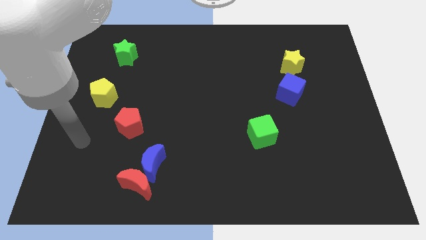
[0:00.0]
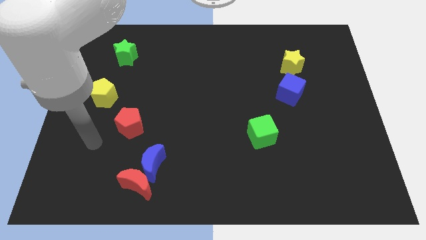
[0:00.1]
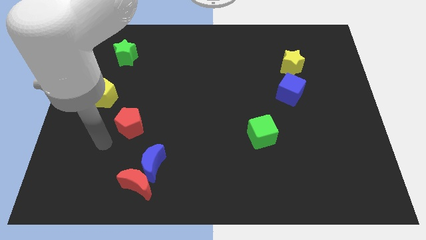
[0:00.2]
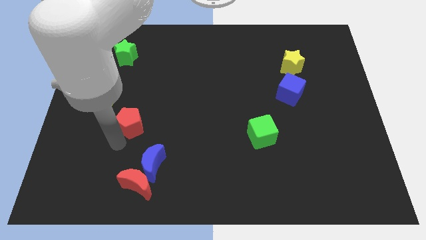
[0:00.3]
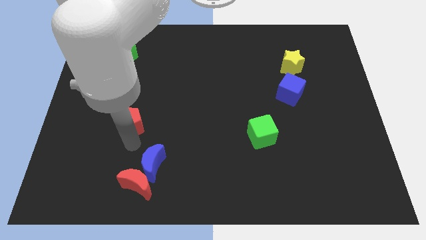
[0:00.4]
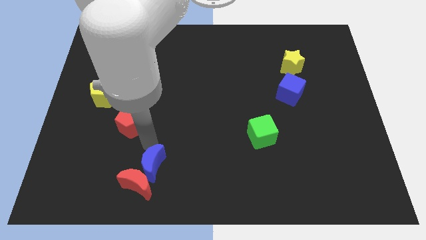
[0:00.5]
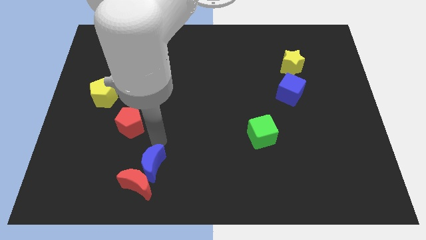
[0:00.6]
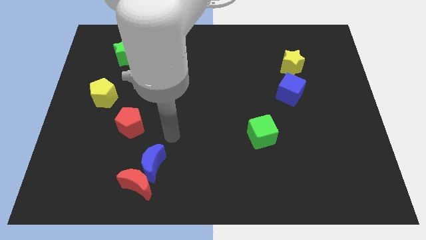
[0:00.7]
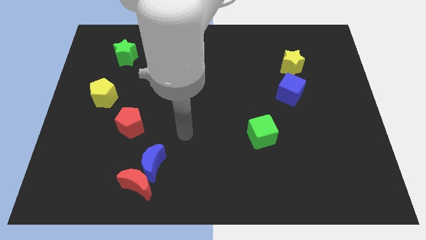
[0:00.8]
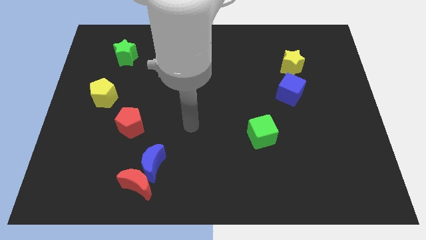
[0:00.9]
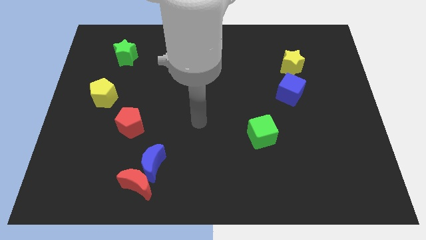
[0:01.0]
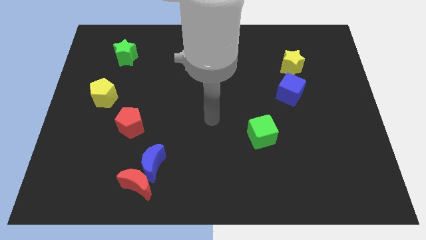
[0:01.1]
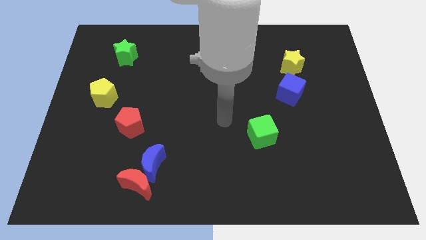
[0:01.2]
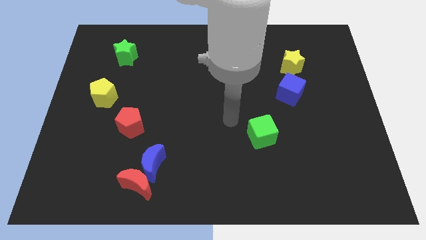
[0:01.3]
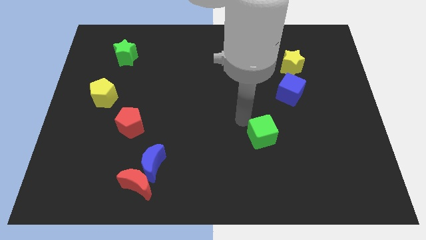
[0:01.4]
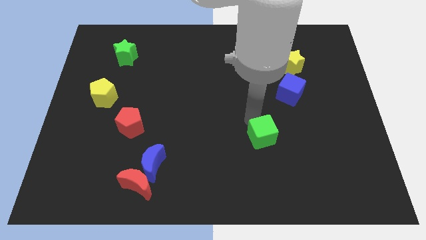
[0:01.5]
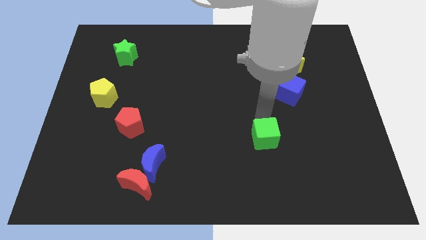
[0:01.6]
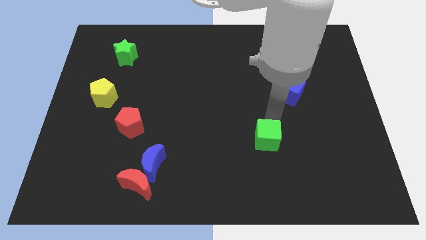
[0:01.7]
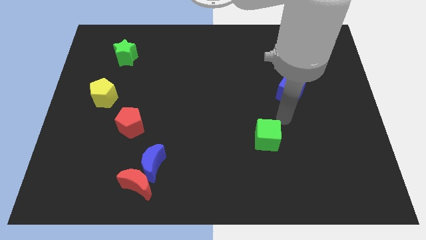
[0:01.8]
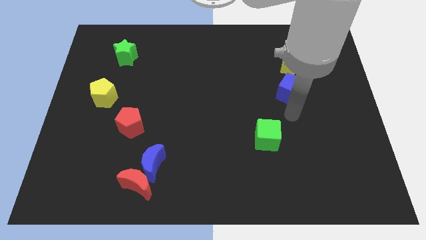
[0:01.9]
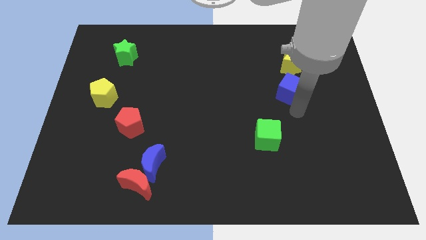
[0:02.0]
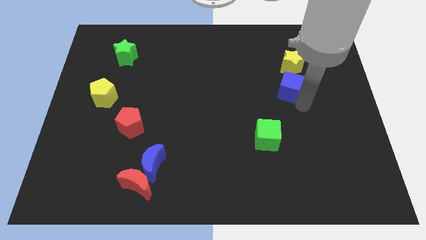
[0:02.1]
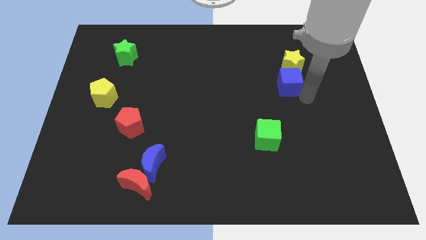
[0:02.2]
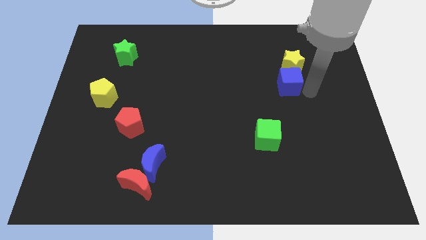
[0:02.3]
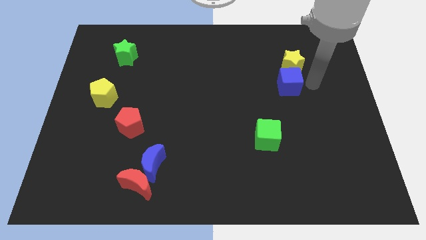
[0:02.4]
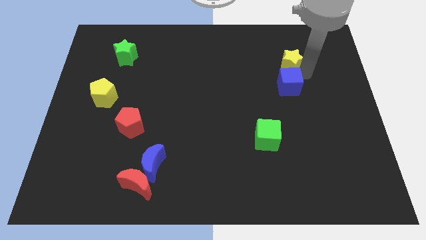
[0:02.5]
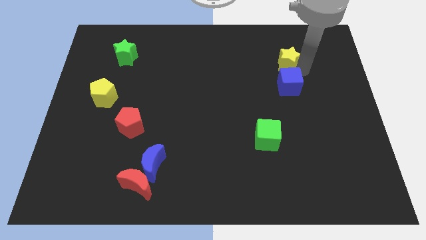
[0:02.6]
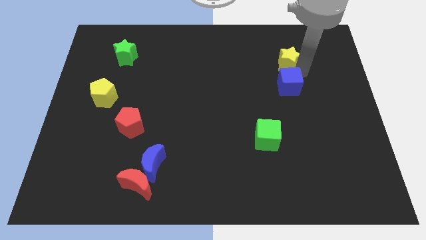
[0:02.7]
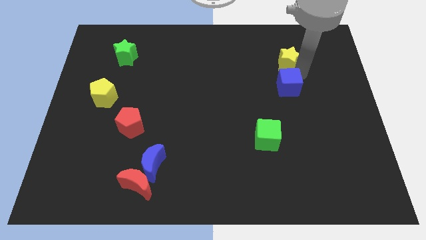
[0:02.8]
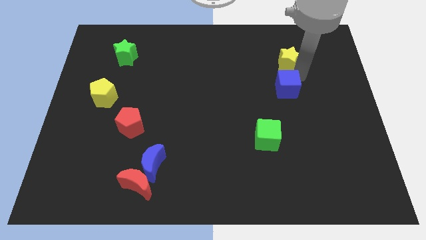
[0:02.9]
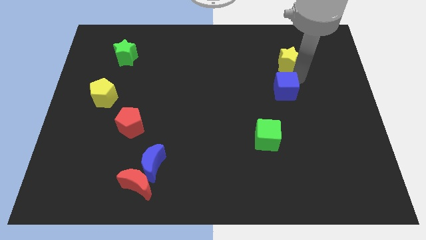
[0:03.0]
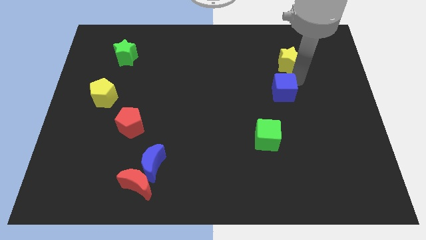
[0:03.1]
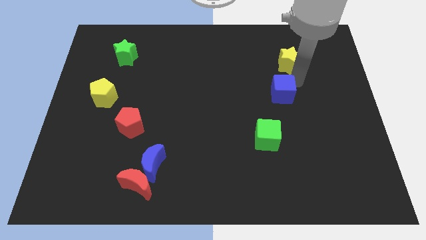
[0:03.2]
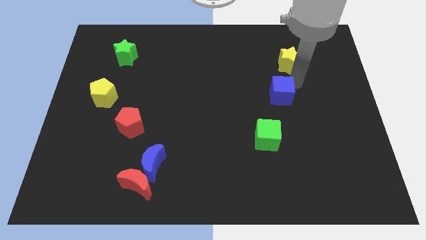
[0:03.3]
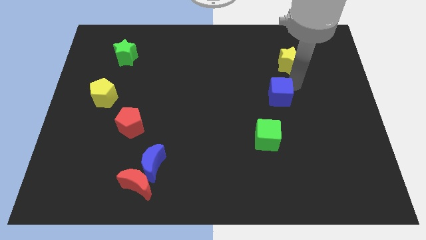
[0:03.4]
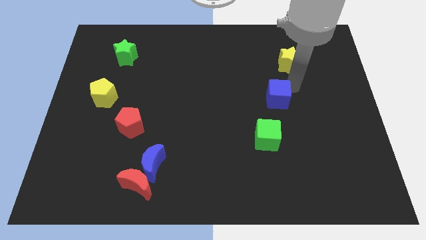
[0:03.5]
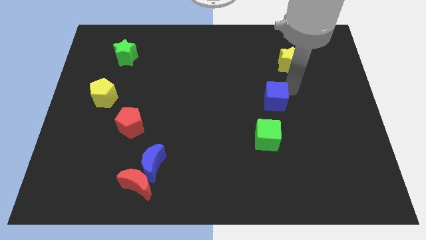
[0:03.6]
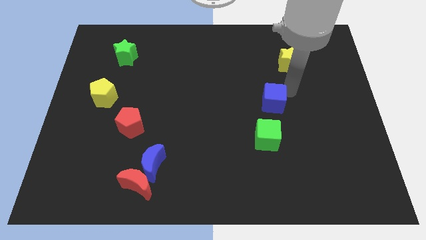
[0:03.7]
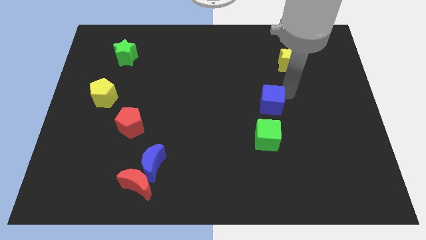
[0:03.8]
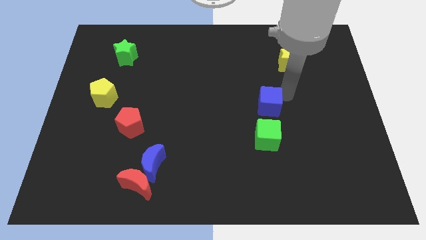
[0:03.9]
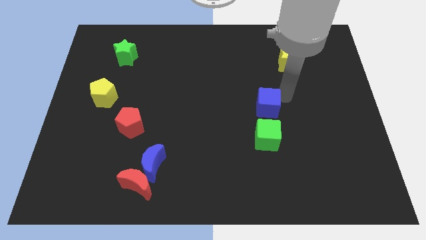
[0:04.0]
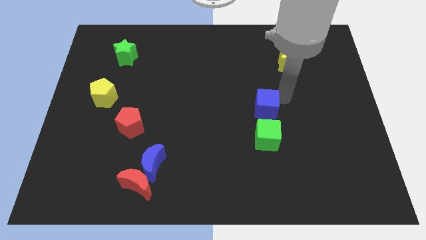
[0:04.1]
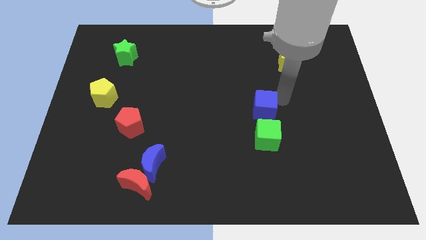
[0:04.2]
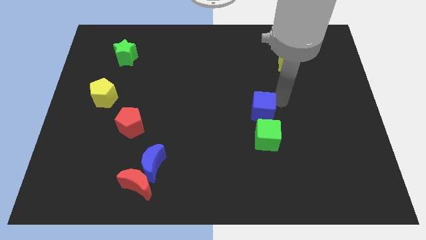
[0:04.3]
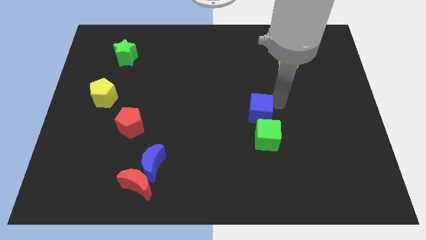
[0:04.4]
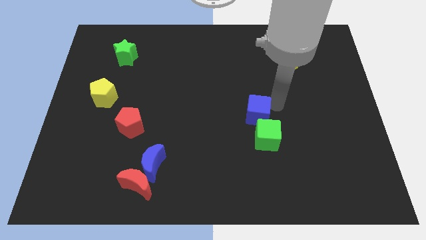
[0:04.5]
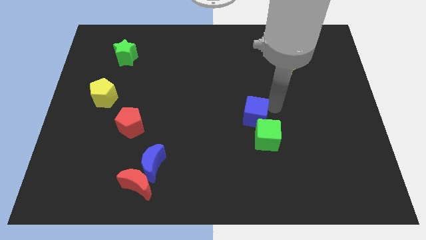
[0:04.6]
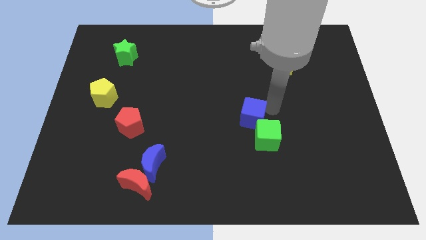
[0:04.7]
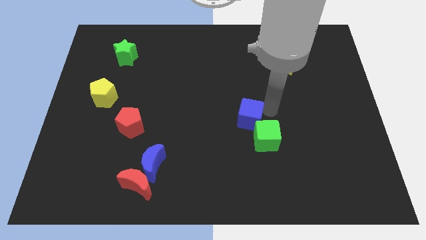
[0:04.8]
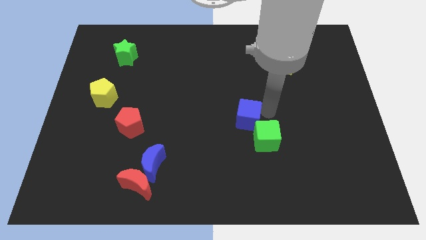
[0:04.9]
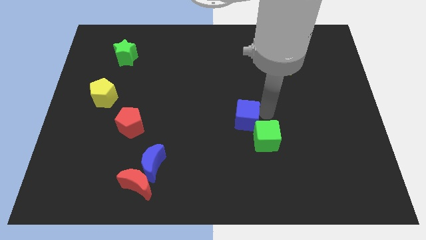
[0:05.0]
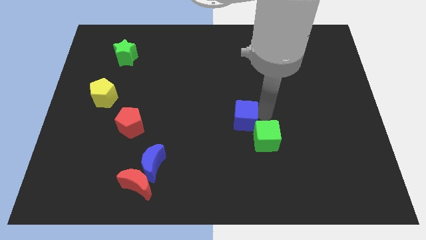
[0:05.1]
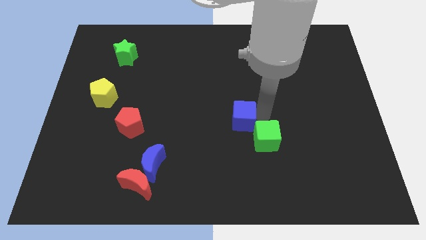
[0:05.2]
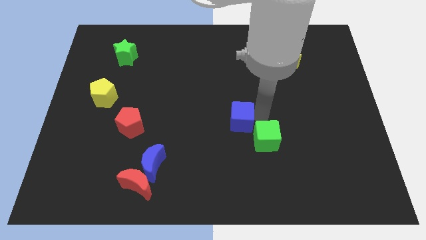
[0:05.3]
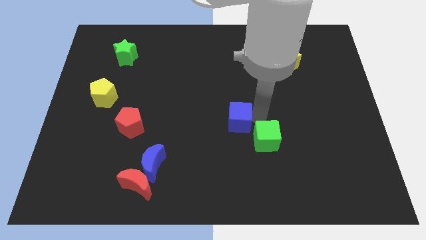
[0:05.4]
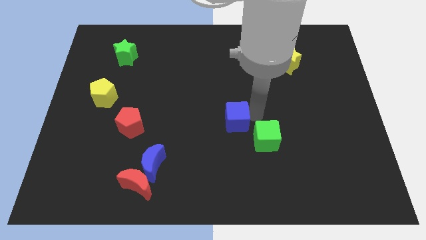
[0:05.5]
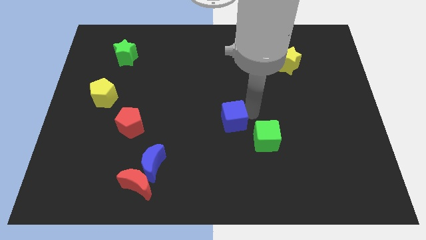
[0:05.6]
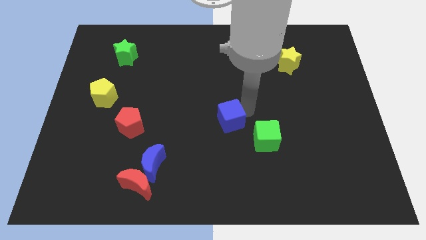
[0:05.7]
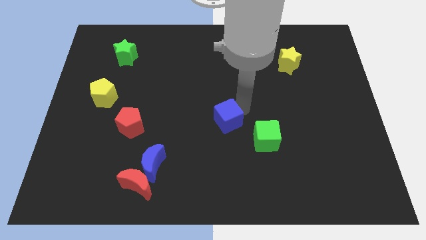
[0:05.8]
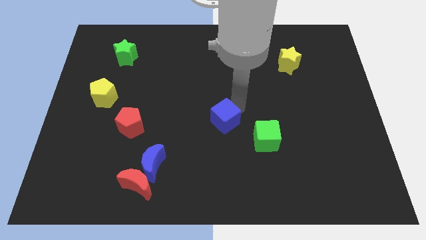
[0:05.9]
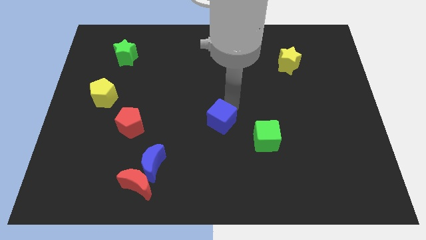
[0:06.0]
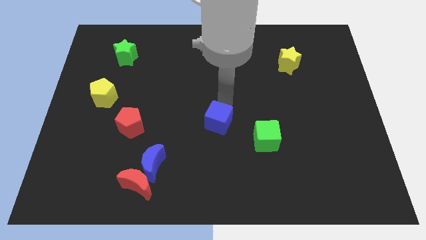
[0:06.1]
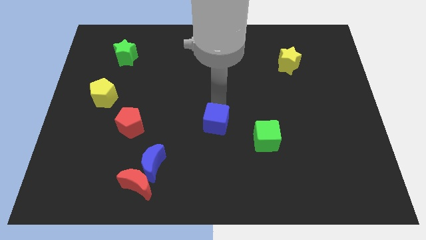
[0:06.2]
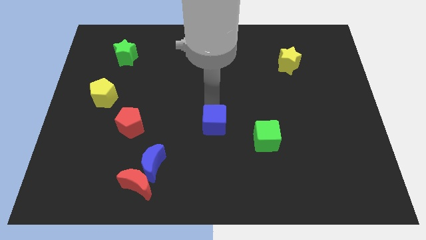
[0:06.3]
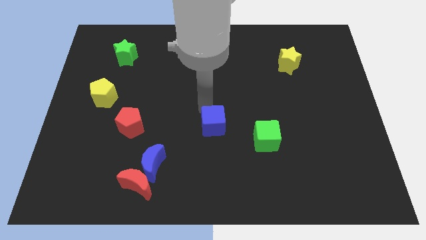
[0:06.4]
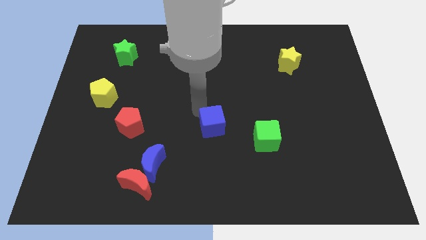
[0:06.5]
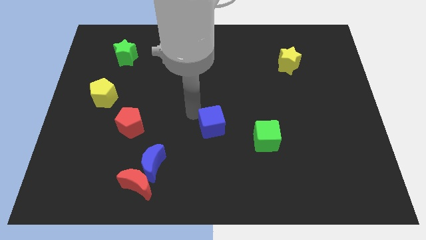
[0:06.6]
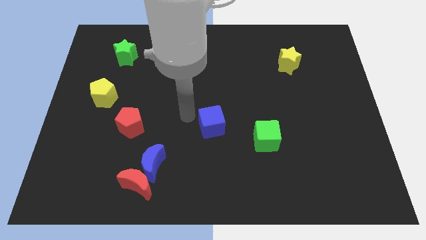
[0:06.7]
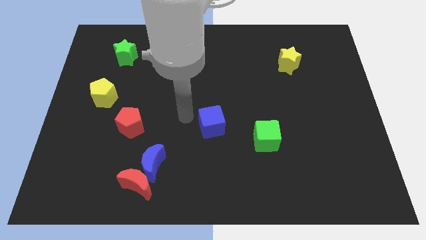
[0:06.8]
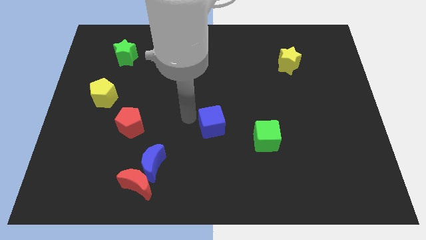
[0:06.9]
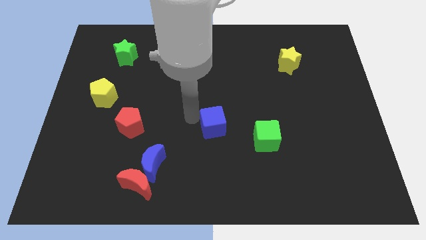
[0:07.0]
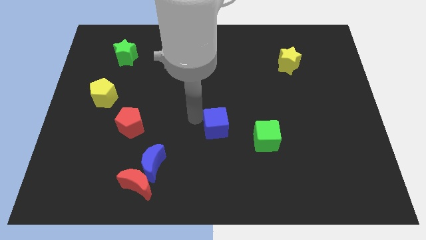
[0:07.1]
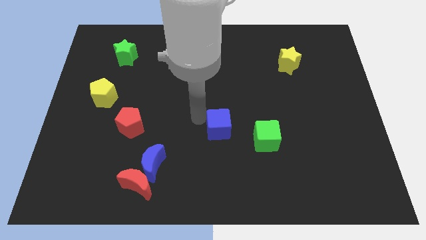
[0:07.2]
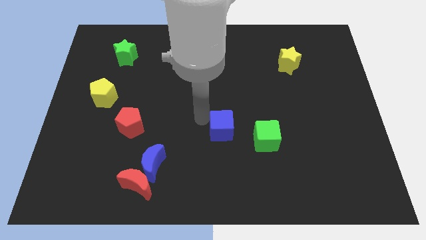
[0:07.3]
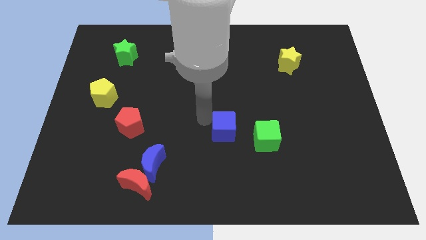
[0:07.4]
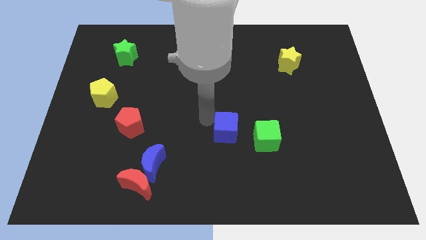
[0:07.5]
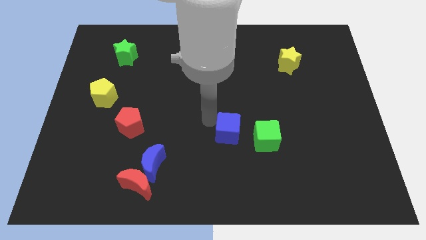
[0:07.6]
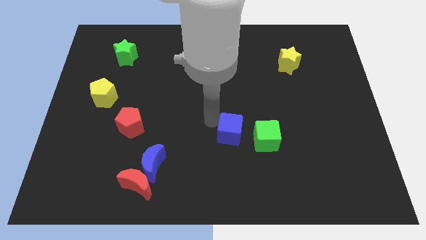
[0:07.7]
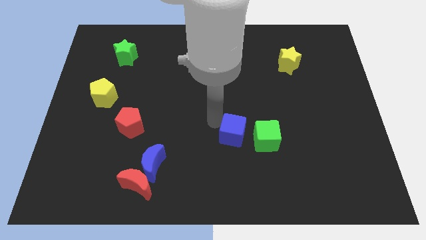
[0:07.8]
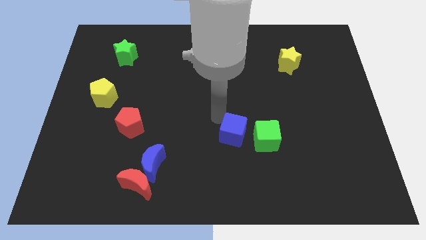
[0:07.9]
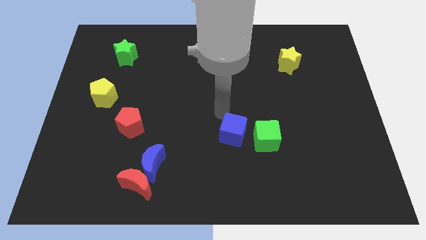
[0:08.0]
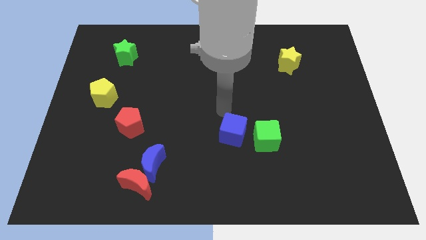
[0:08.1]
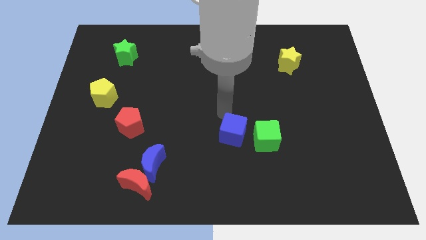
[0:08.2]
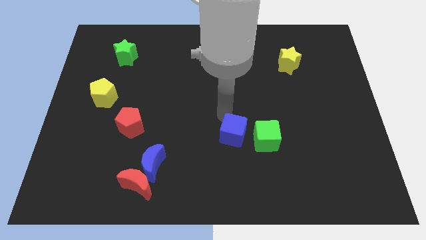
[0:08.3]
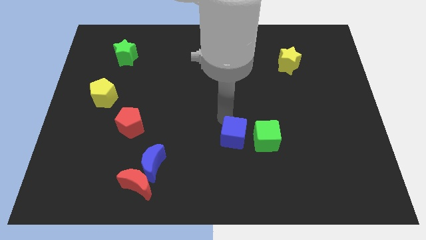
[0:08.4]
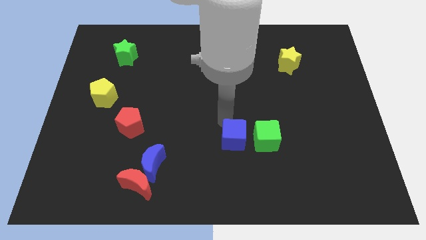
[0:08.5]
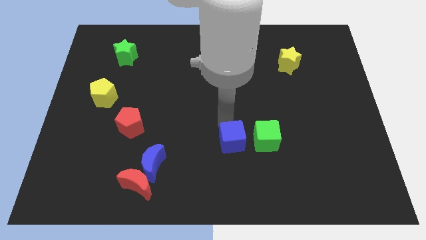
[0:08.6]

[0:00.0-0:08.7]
put the blue cube to the bottom left side of the green cube
